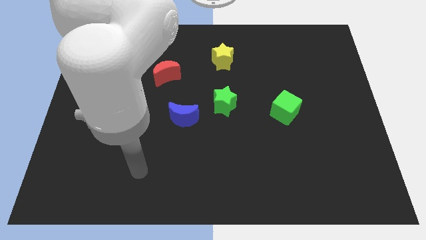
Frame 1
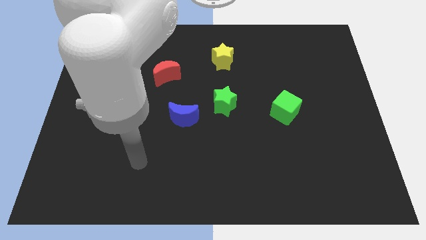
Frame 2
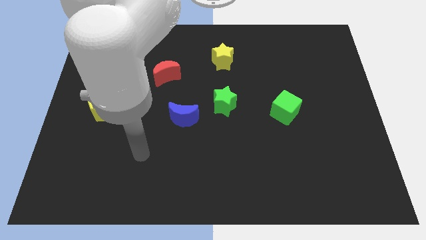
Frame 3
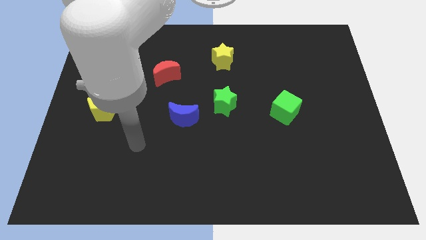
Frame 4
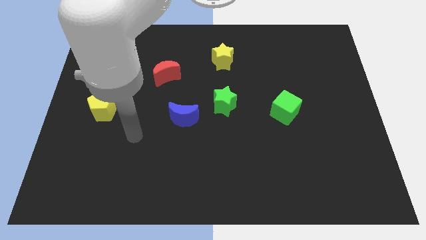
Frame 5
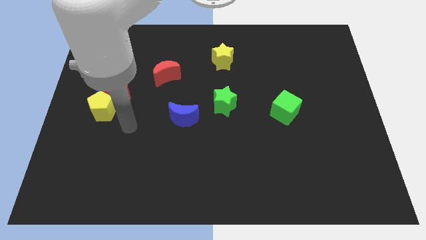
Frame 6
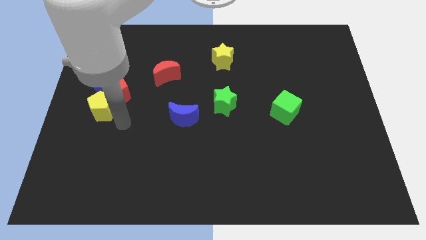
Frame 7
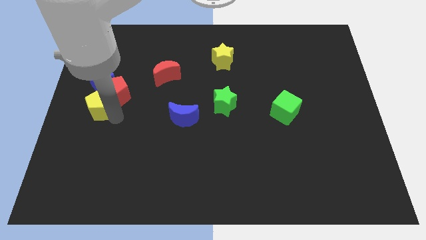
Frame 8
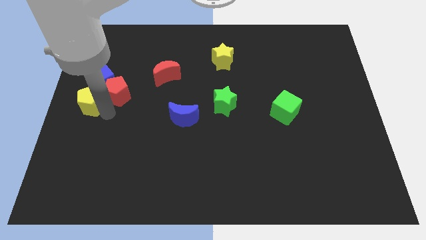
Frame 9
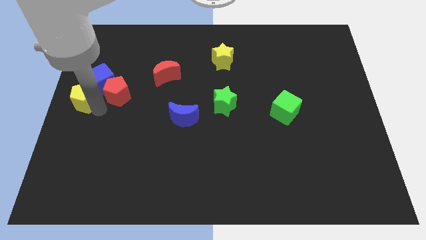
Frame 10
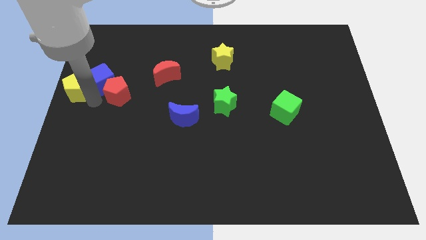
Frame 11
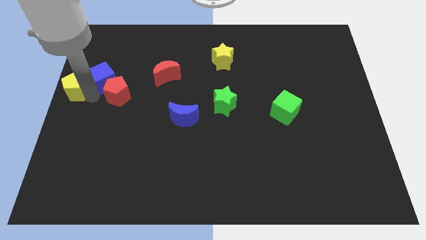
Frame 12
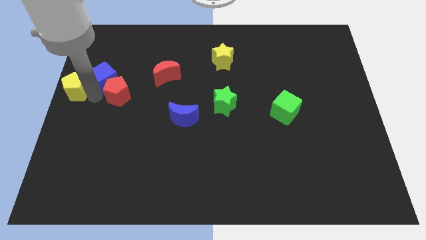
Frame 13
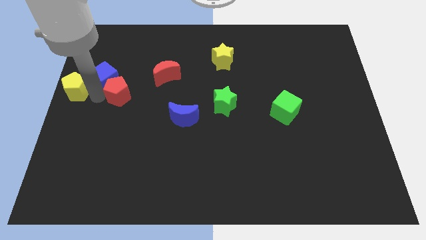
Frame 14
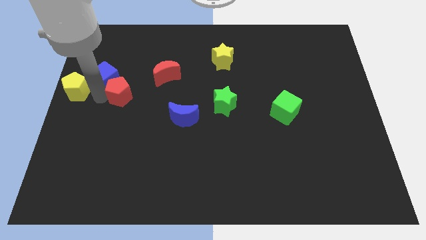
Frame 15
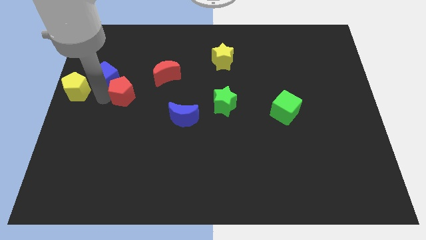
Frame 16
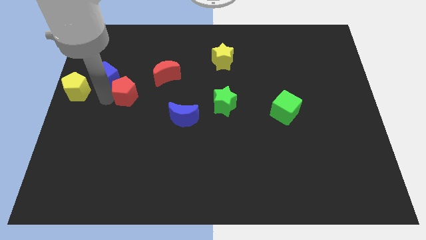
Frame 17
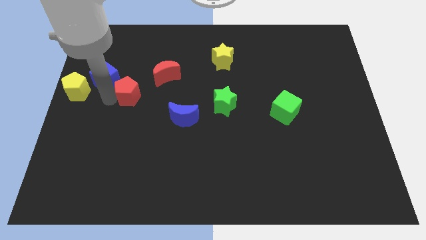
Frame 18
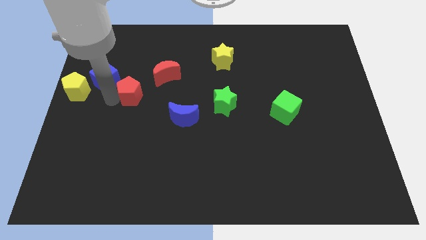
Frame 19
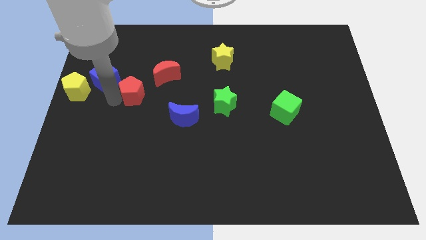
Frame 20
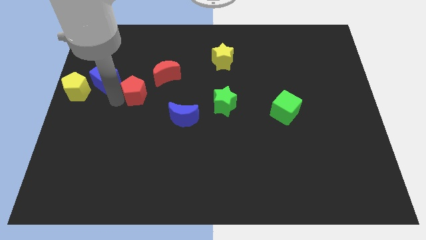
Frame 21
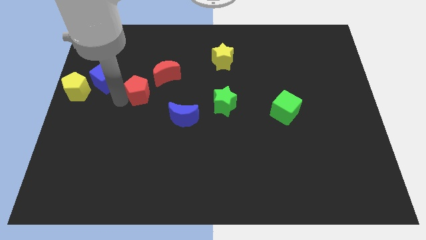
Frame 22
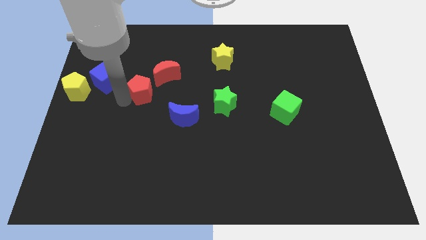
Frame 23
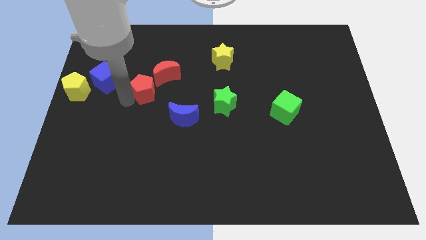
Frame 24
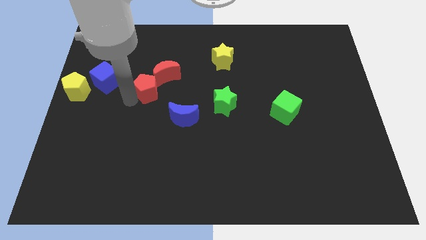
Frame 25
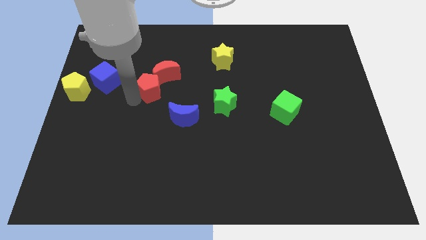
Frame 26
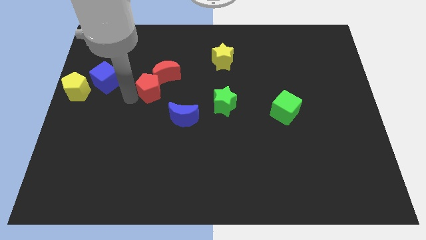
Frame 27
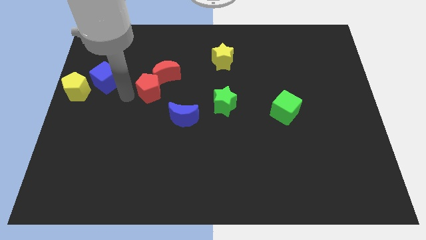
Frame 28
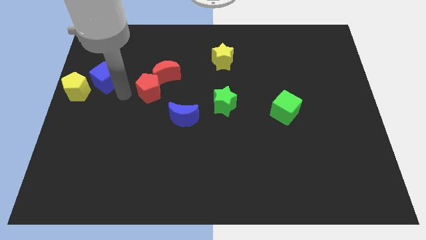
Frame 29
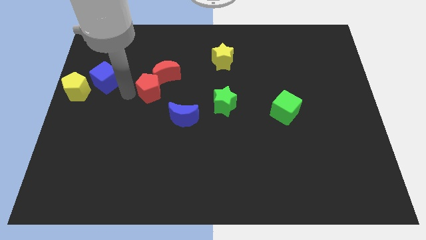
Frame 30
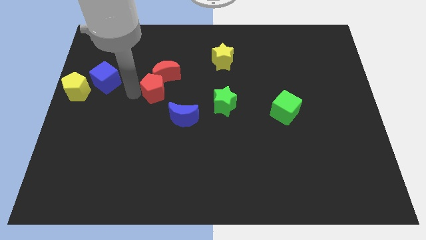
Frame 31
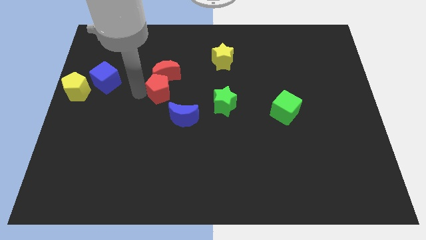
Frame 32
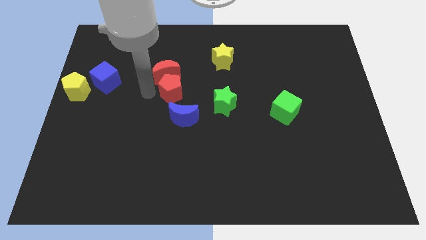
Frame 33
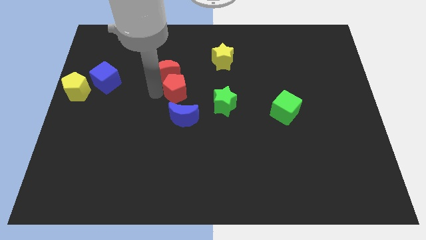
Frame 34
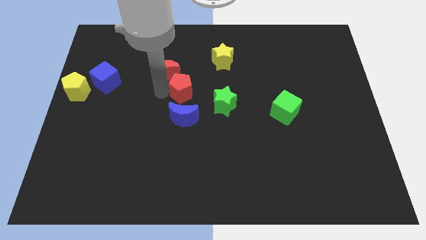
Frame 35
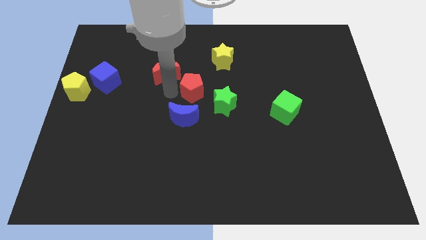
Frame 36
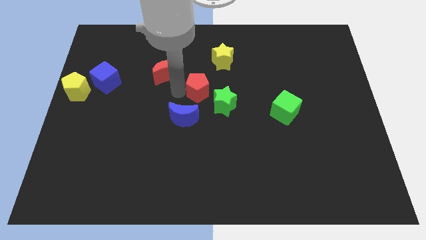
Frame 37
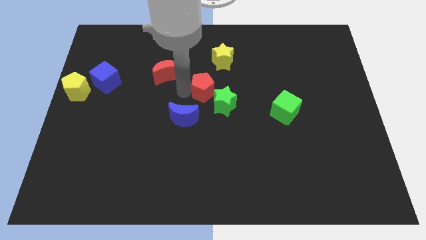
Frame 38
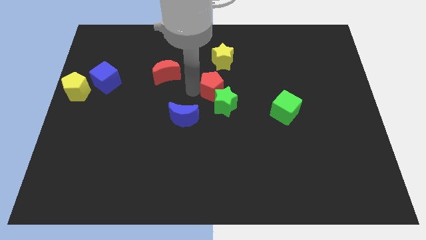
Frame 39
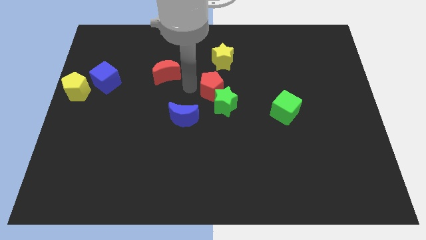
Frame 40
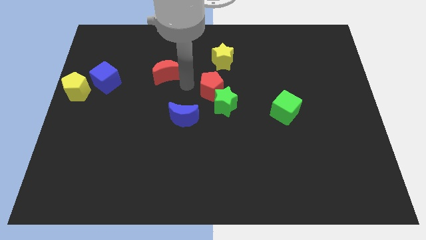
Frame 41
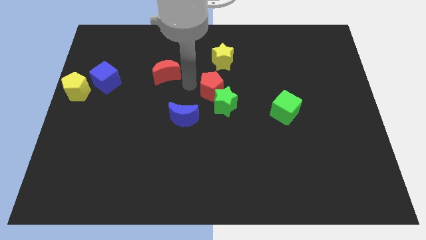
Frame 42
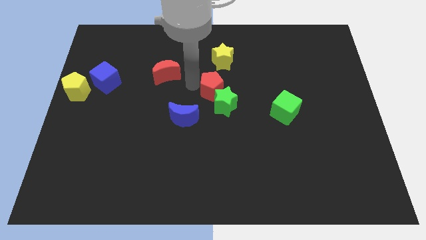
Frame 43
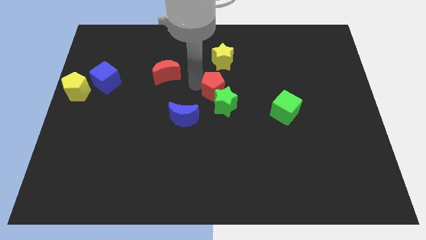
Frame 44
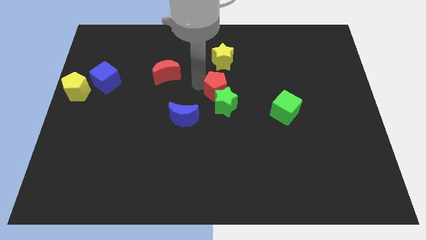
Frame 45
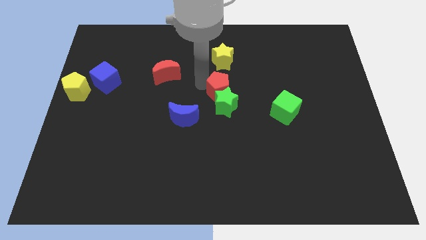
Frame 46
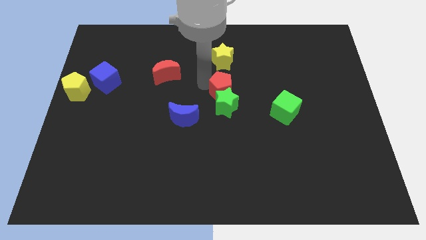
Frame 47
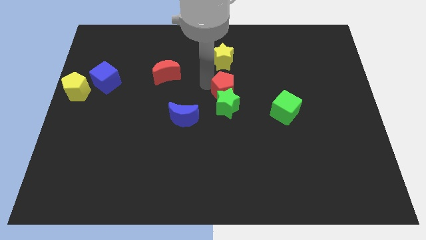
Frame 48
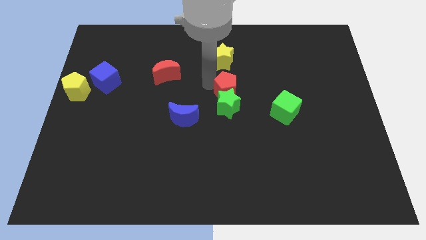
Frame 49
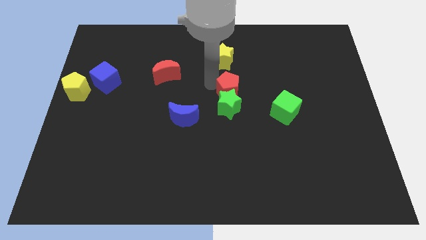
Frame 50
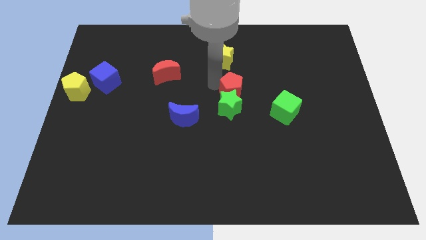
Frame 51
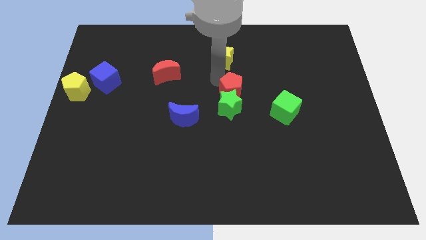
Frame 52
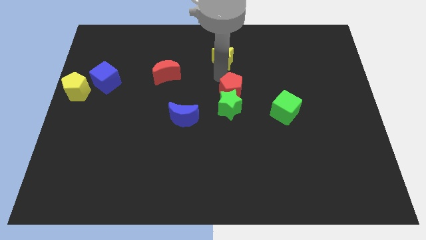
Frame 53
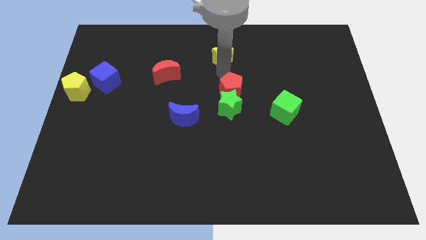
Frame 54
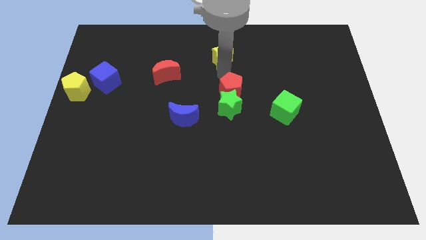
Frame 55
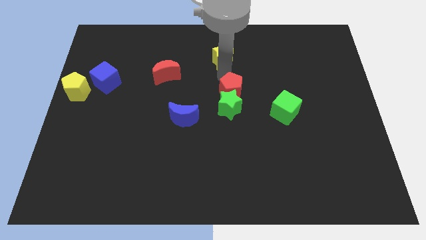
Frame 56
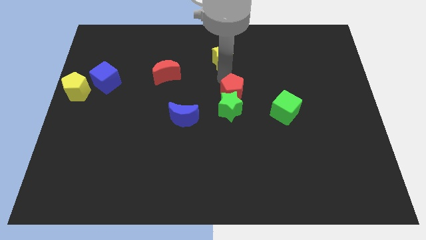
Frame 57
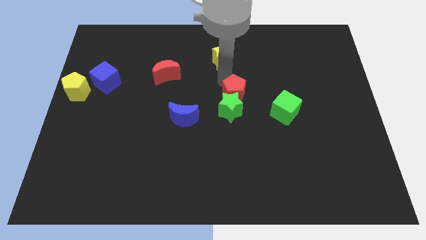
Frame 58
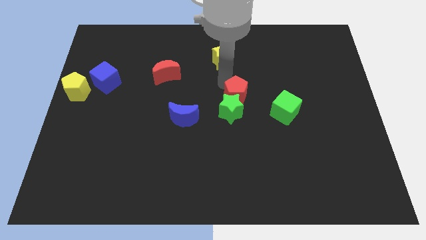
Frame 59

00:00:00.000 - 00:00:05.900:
slide the red pentagon to the left side of the green cube
